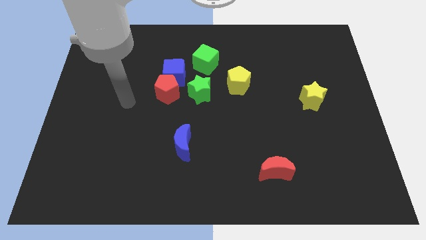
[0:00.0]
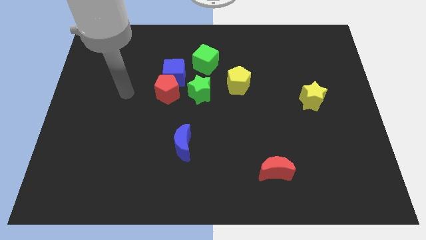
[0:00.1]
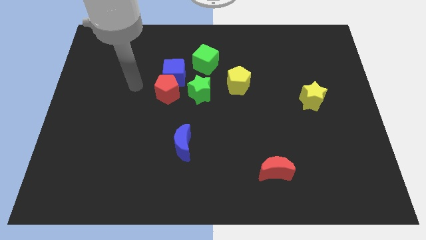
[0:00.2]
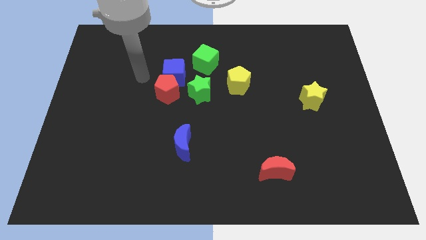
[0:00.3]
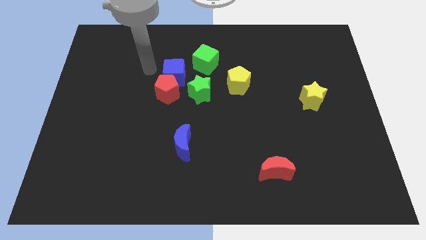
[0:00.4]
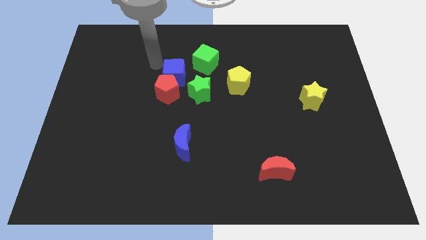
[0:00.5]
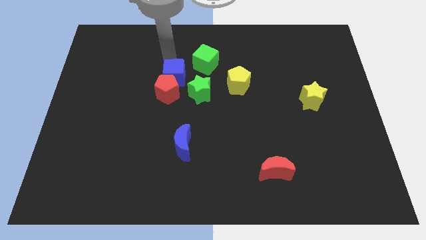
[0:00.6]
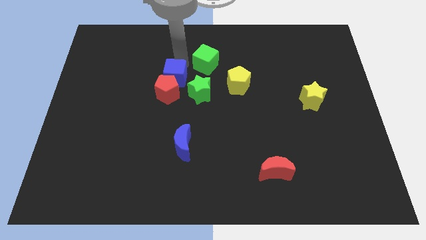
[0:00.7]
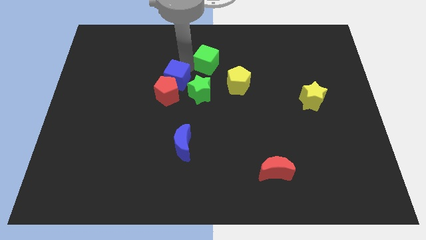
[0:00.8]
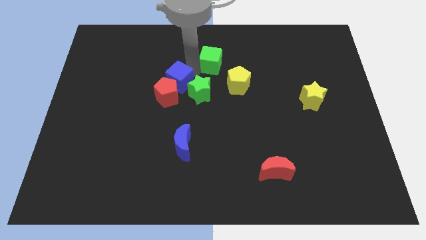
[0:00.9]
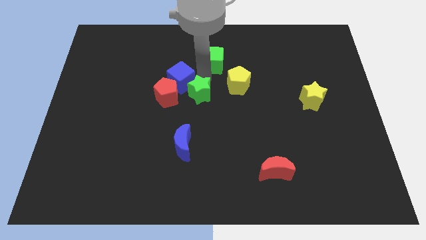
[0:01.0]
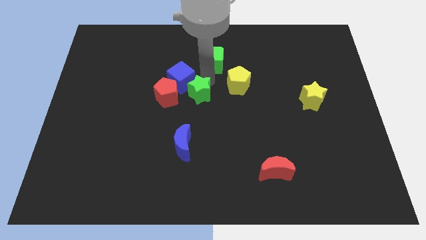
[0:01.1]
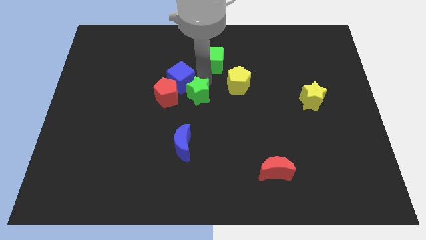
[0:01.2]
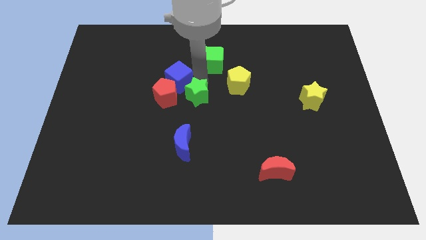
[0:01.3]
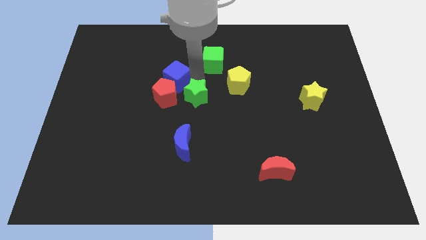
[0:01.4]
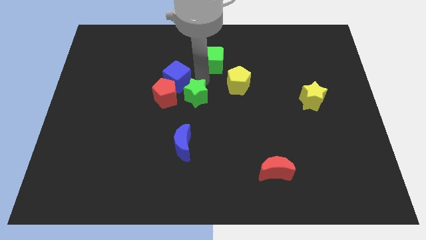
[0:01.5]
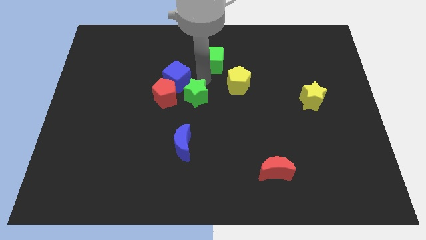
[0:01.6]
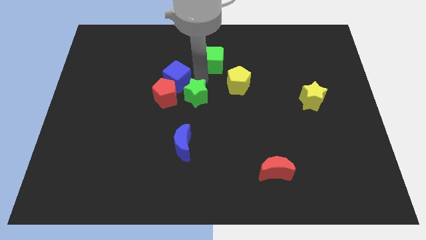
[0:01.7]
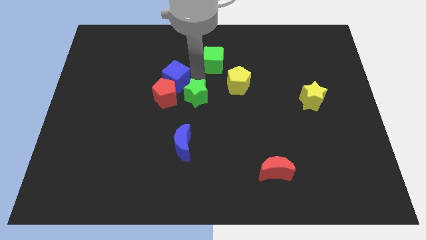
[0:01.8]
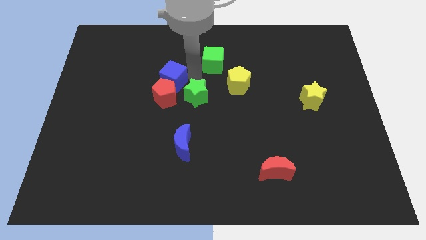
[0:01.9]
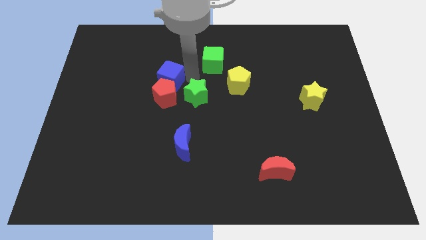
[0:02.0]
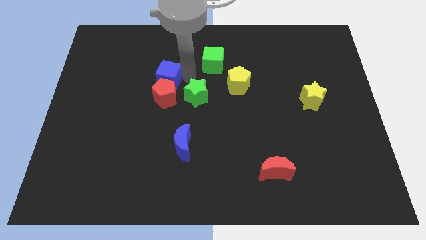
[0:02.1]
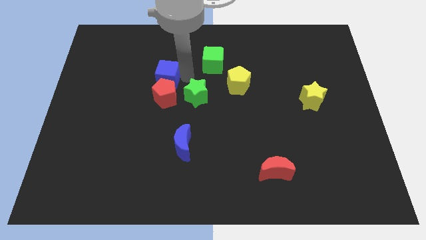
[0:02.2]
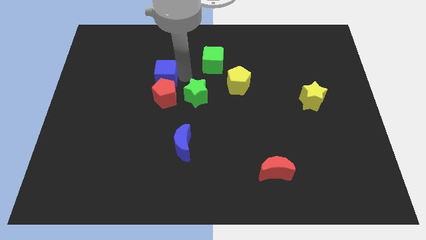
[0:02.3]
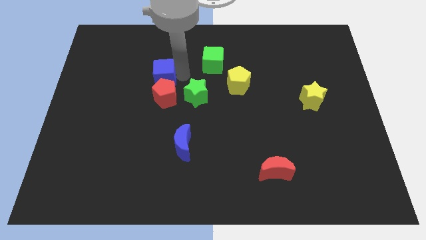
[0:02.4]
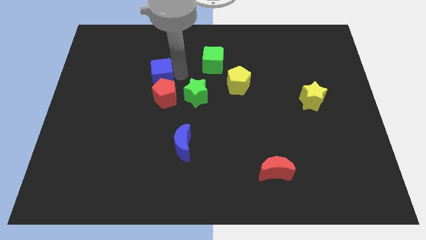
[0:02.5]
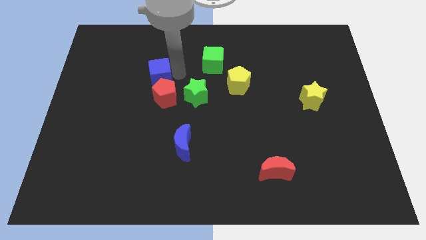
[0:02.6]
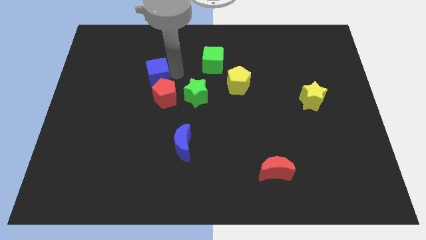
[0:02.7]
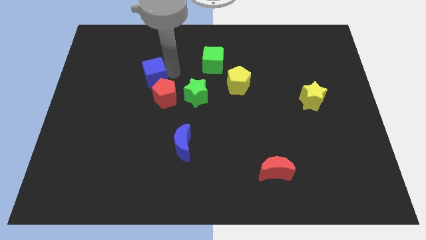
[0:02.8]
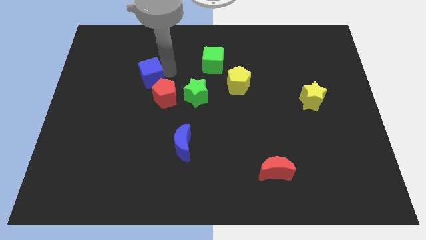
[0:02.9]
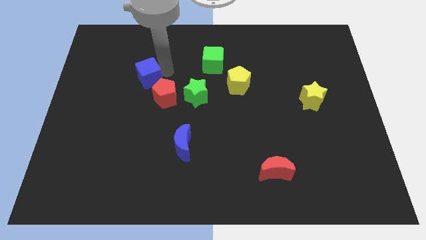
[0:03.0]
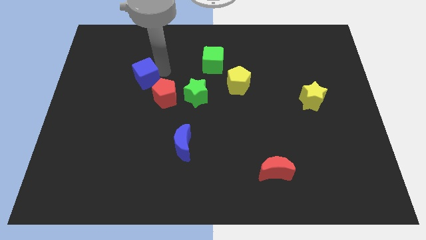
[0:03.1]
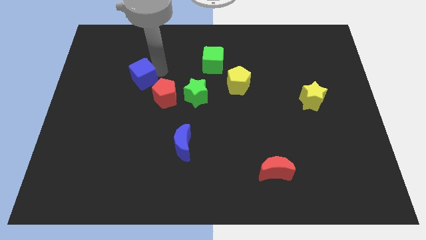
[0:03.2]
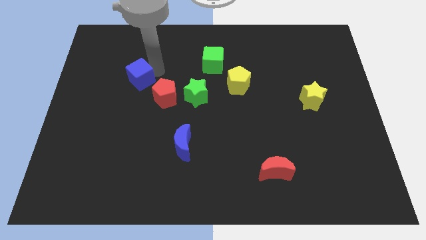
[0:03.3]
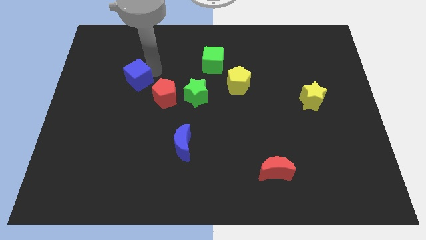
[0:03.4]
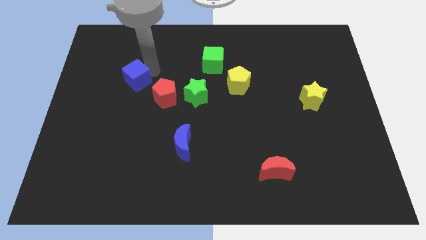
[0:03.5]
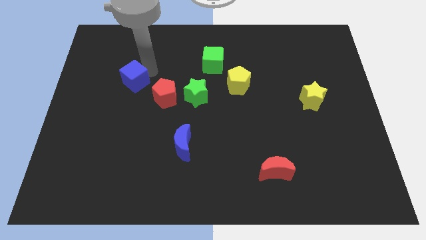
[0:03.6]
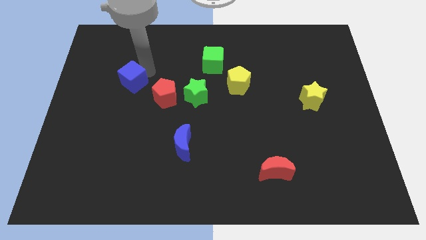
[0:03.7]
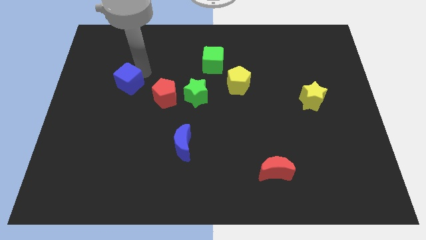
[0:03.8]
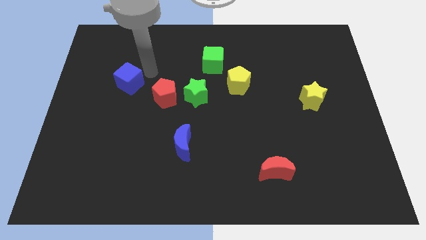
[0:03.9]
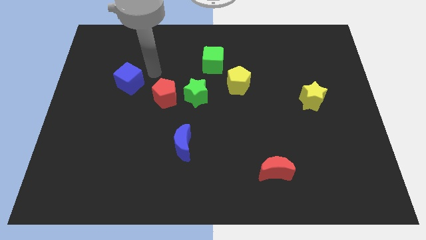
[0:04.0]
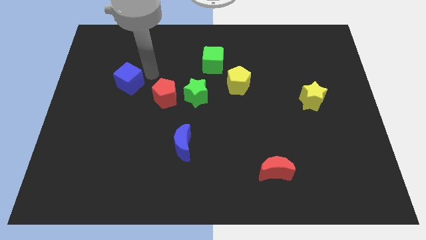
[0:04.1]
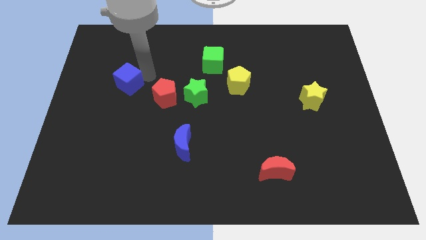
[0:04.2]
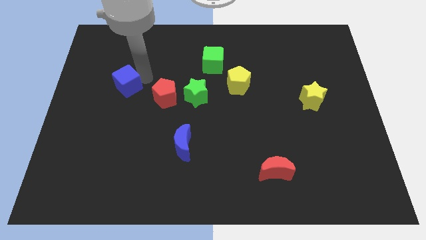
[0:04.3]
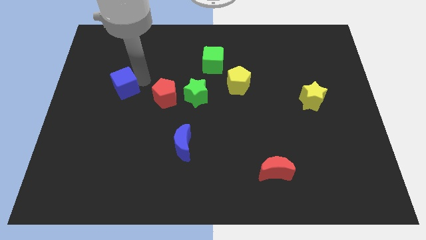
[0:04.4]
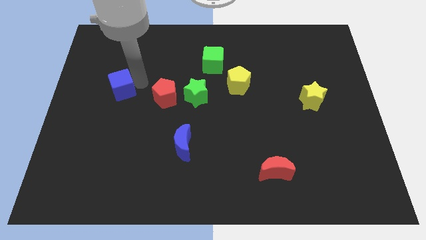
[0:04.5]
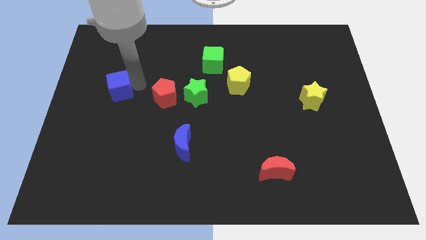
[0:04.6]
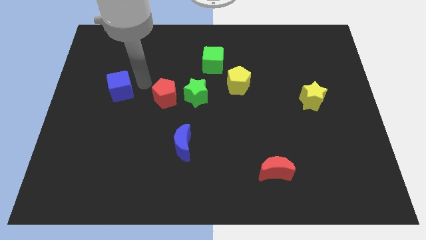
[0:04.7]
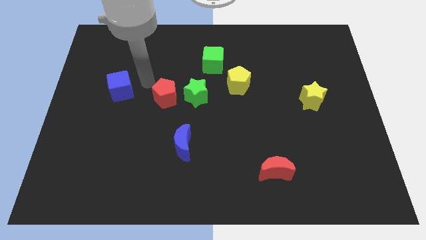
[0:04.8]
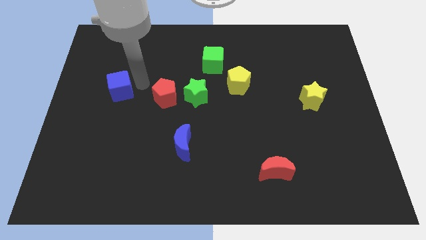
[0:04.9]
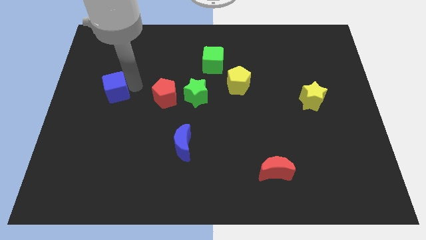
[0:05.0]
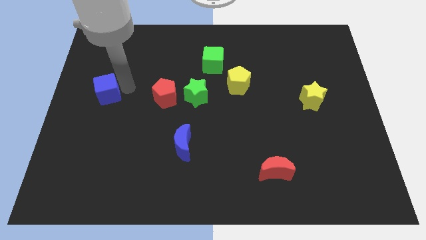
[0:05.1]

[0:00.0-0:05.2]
move the blue cube to the left side

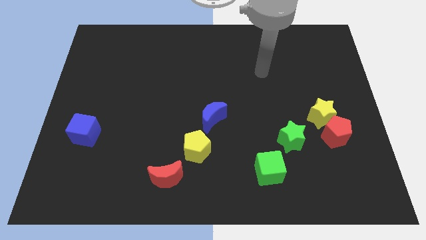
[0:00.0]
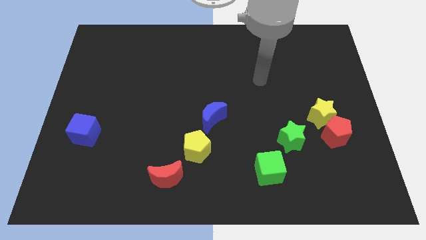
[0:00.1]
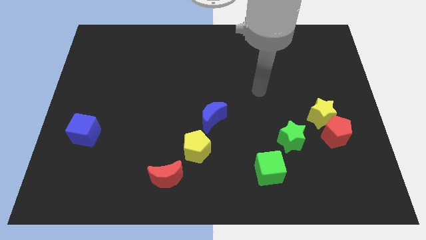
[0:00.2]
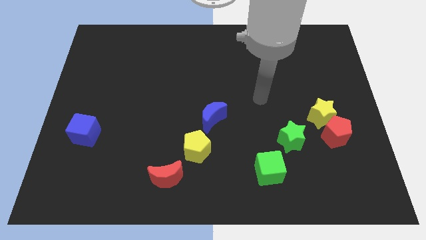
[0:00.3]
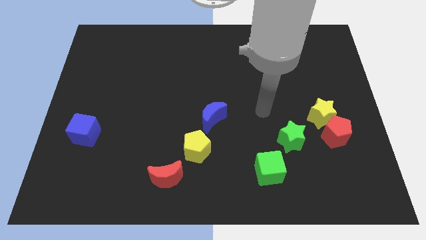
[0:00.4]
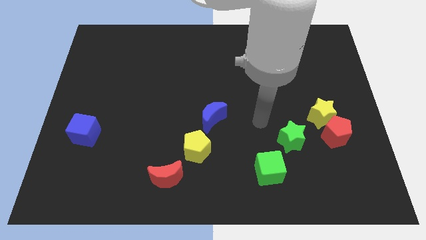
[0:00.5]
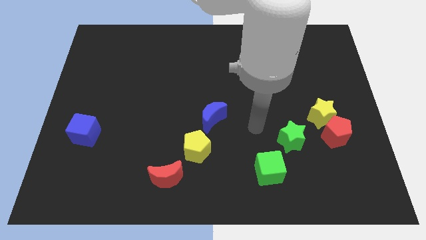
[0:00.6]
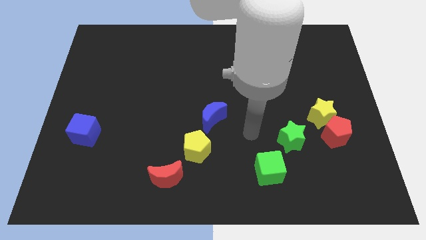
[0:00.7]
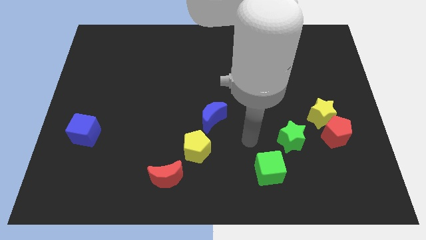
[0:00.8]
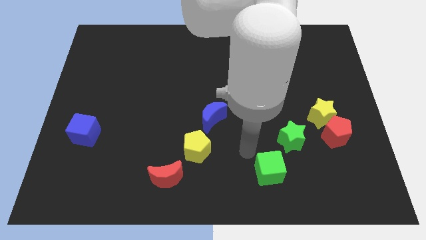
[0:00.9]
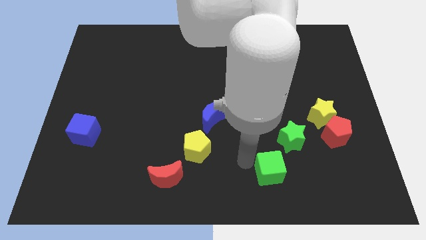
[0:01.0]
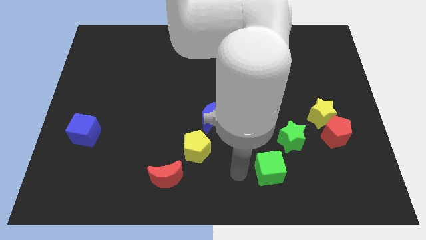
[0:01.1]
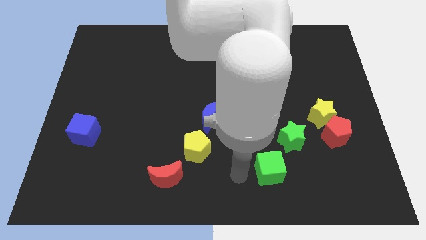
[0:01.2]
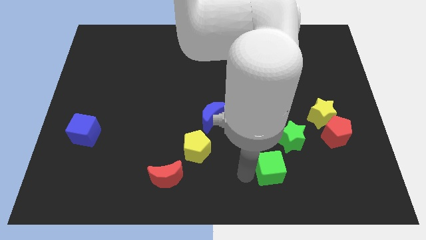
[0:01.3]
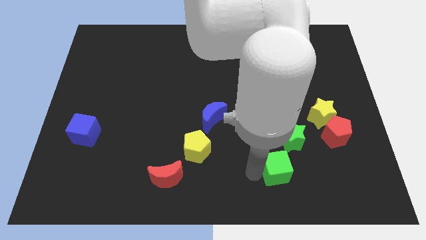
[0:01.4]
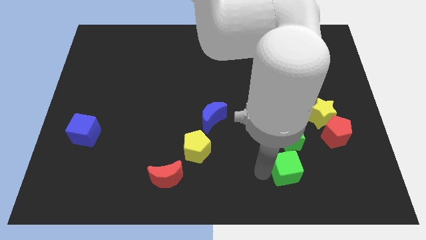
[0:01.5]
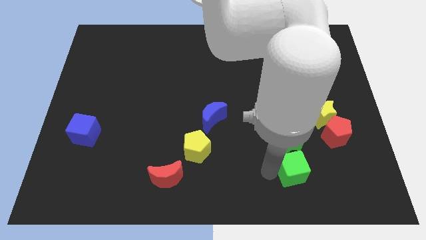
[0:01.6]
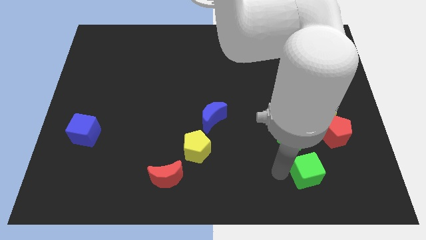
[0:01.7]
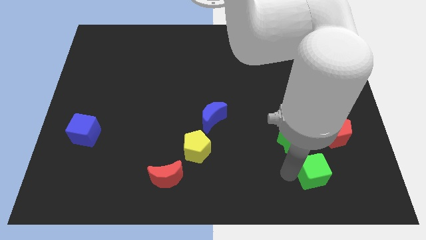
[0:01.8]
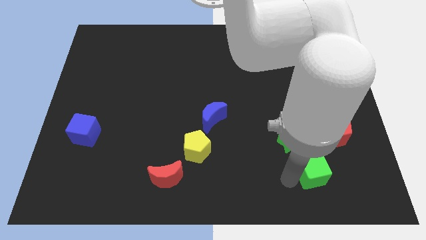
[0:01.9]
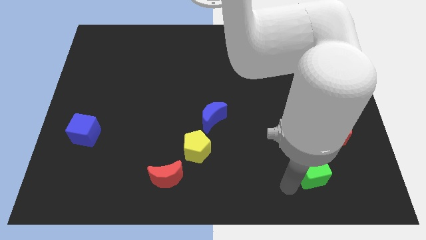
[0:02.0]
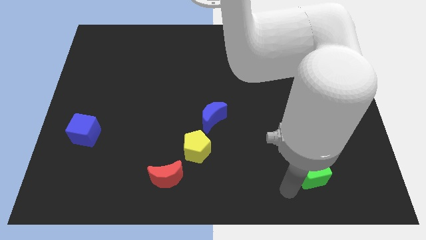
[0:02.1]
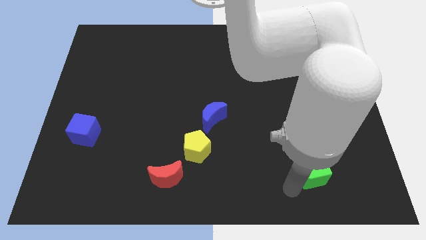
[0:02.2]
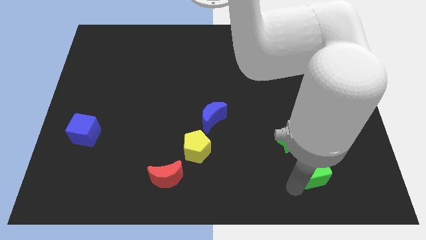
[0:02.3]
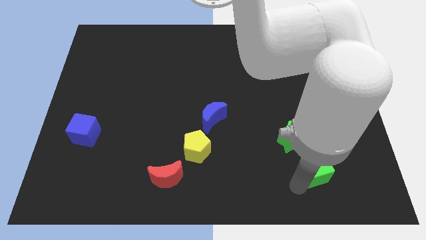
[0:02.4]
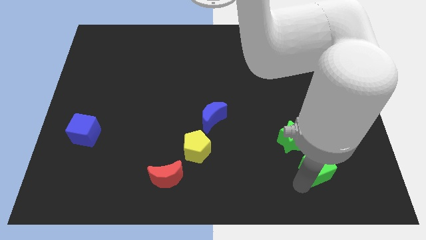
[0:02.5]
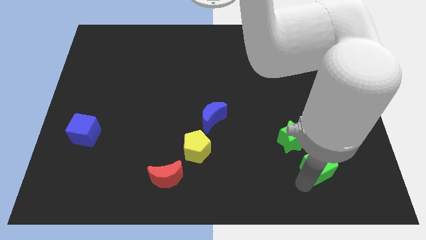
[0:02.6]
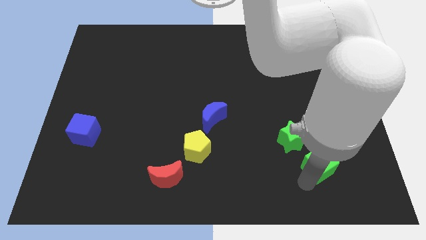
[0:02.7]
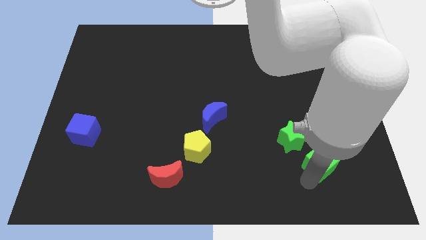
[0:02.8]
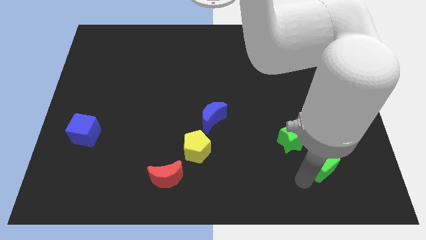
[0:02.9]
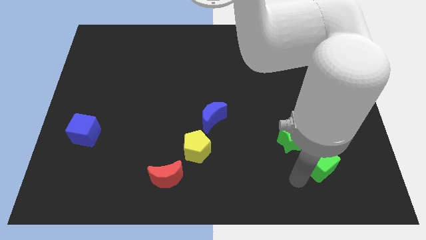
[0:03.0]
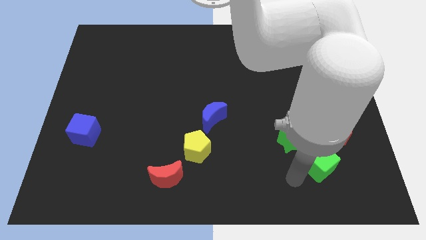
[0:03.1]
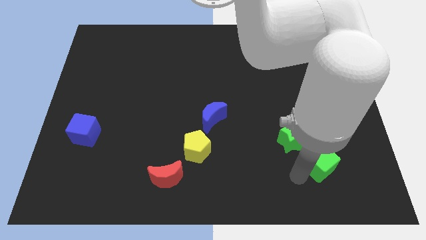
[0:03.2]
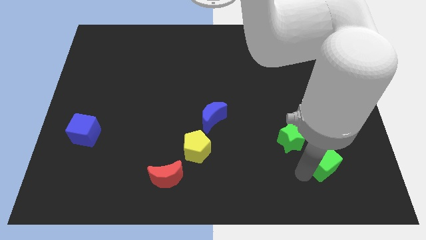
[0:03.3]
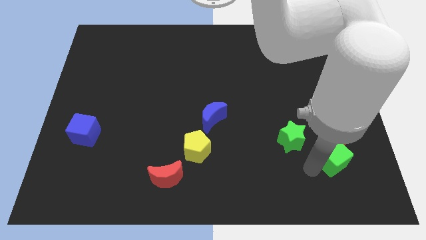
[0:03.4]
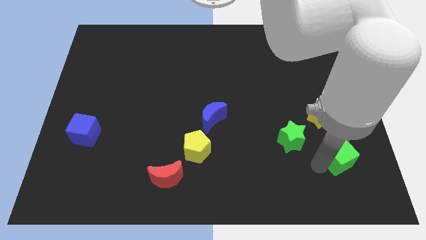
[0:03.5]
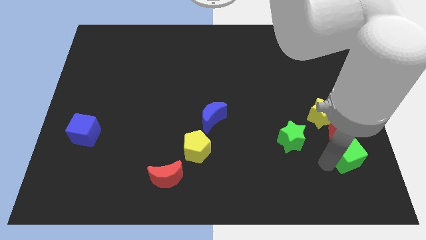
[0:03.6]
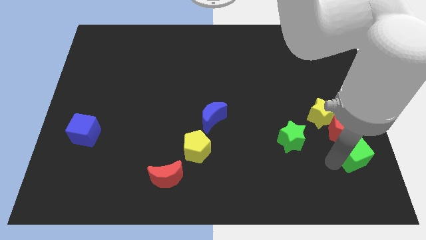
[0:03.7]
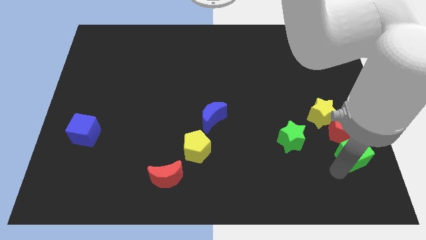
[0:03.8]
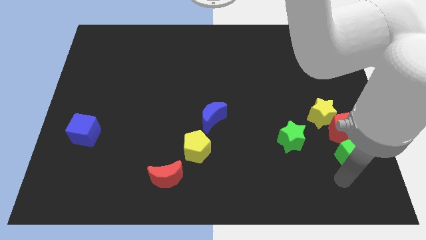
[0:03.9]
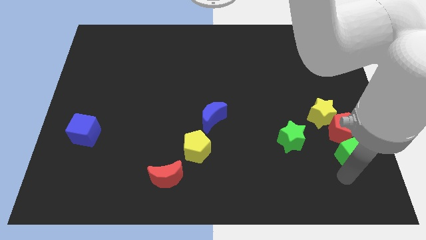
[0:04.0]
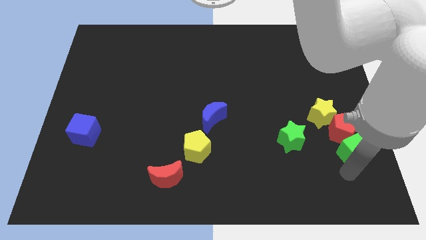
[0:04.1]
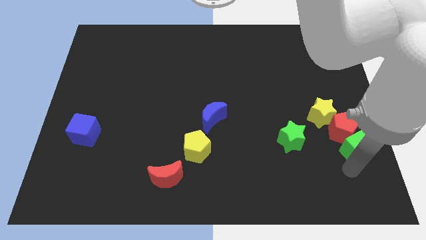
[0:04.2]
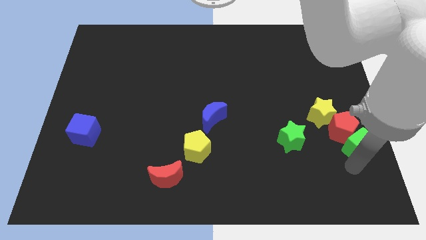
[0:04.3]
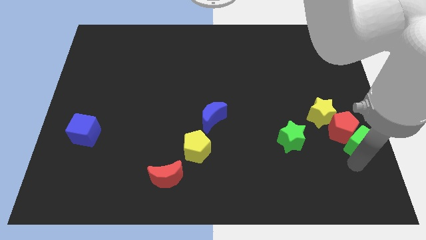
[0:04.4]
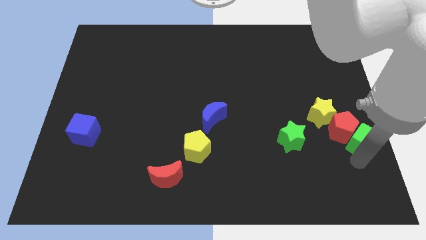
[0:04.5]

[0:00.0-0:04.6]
slide the green cube to the center right
